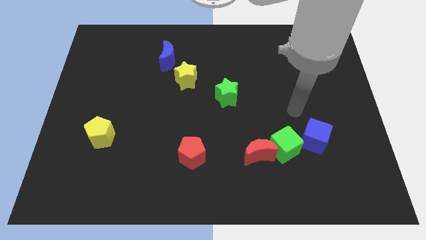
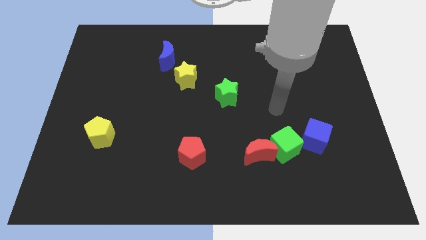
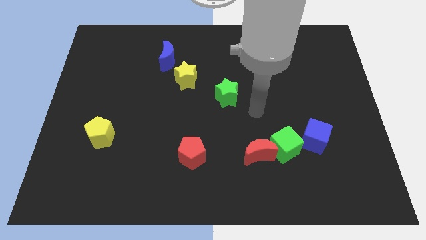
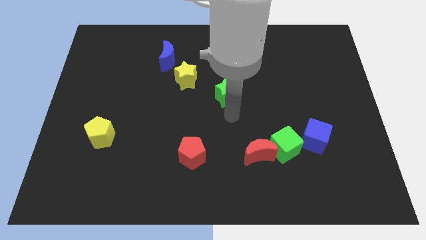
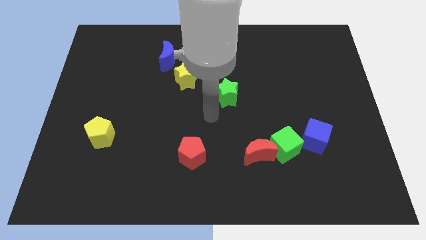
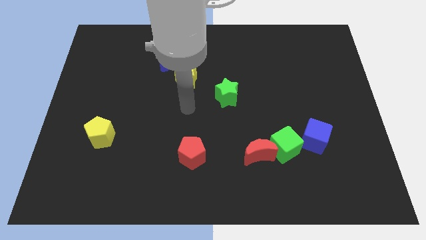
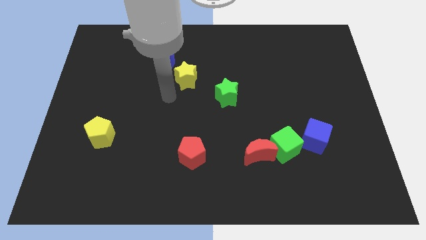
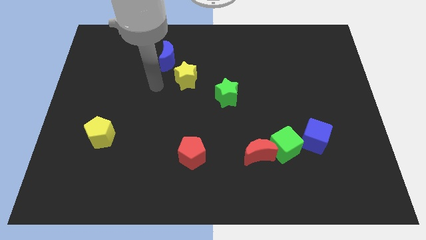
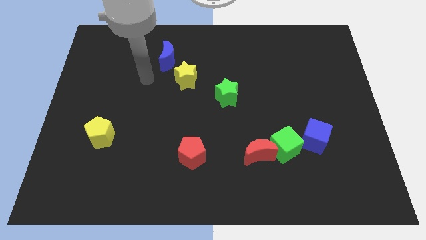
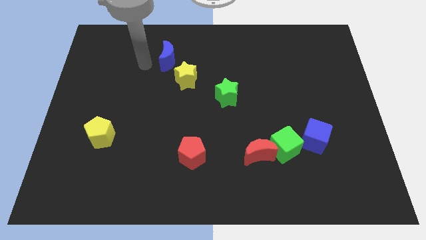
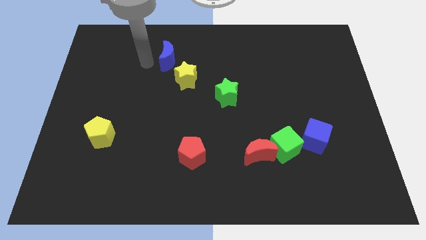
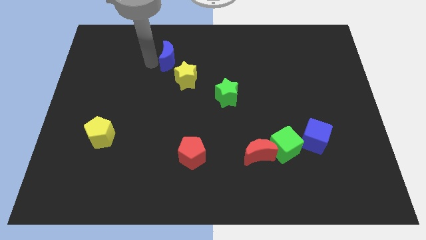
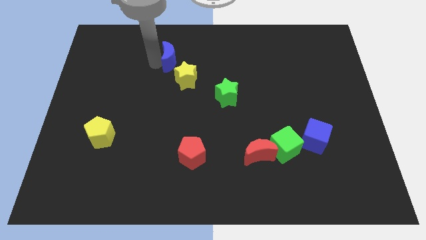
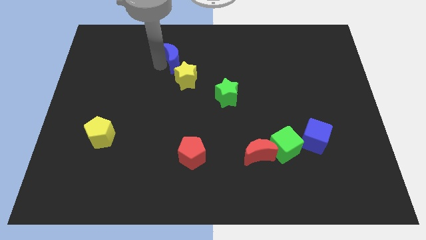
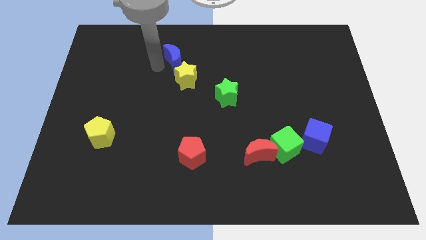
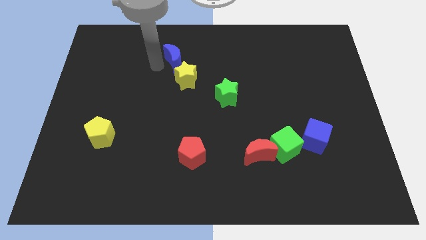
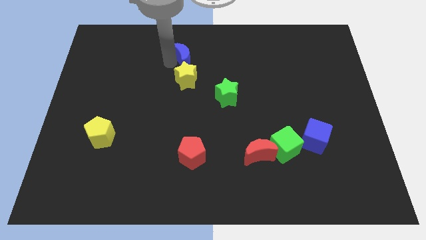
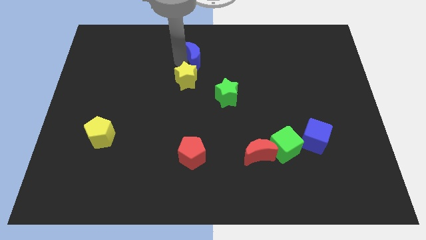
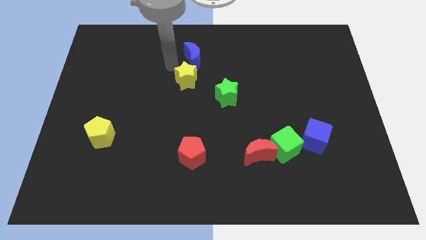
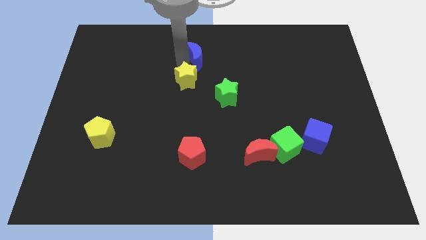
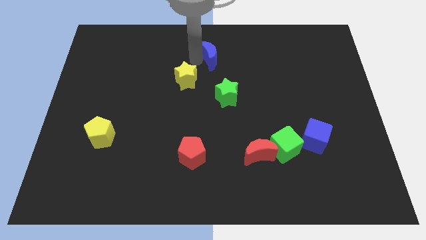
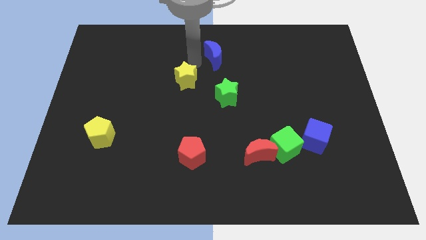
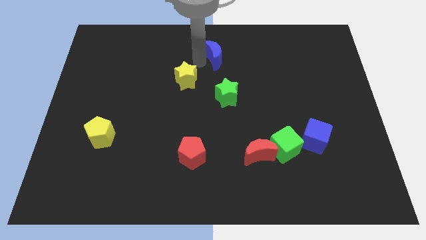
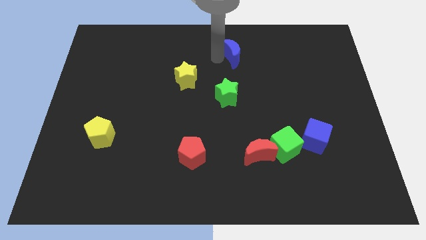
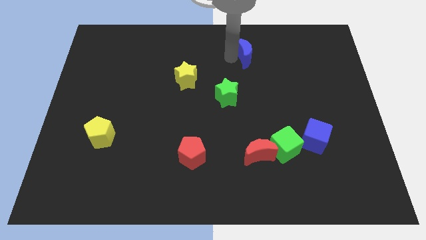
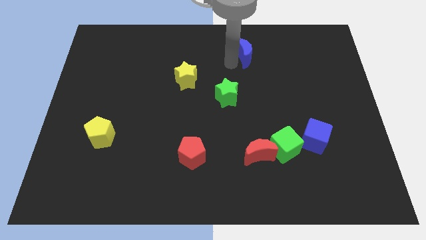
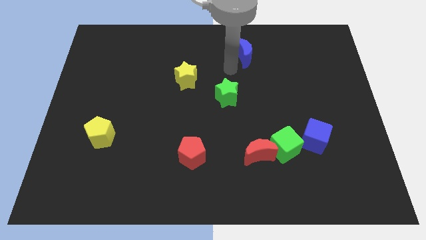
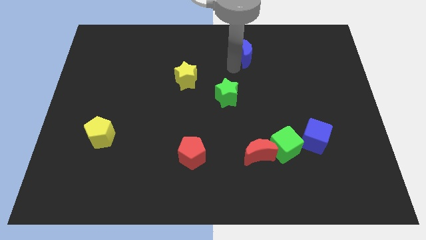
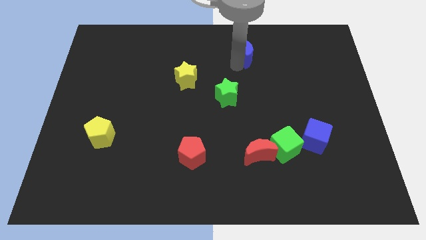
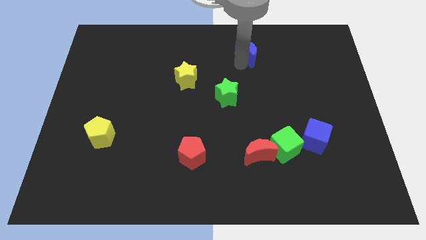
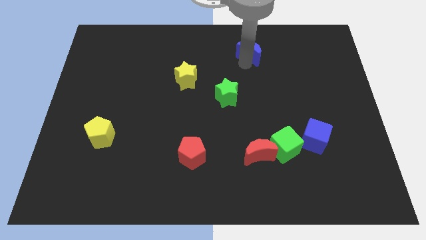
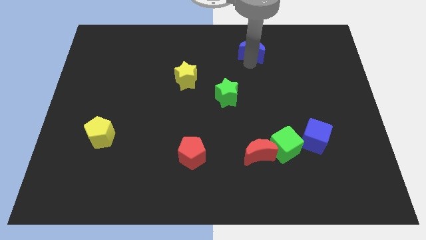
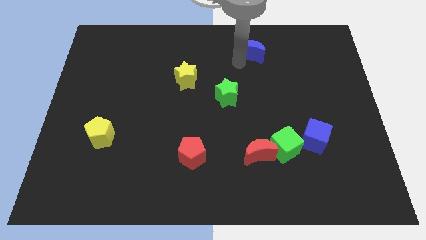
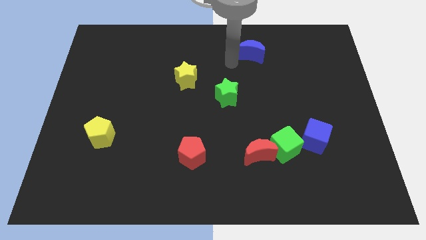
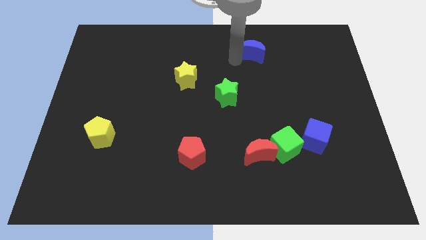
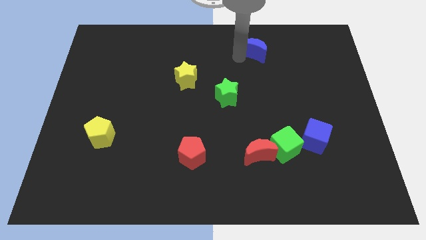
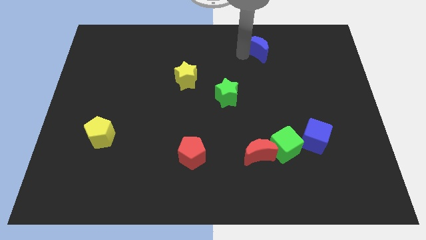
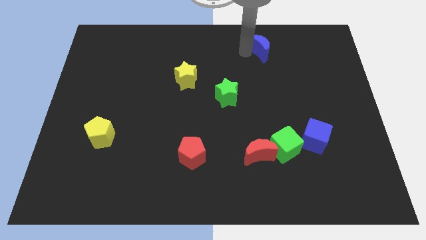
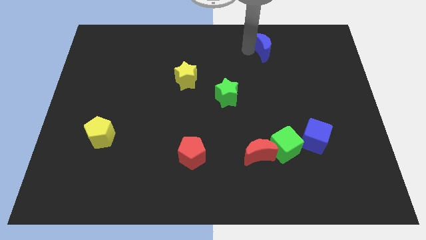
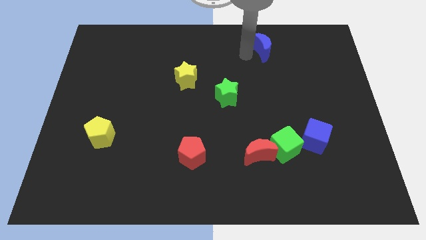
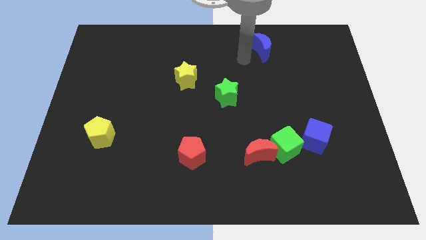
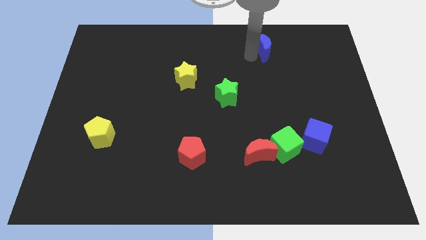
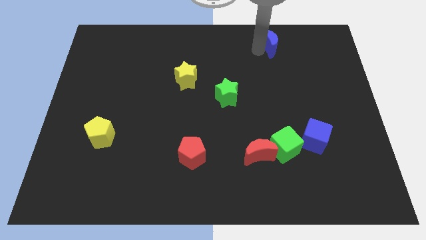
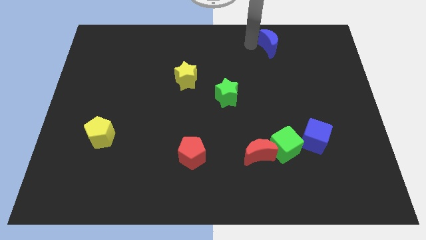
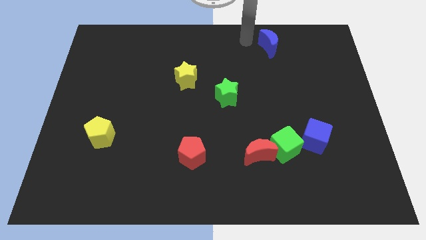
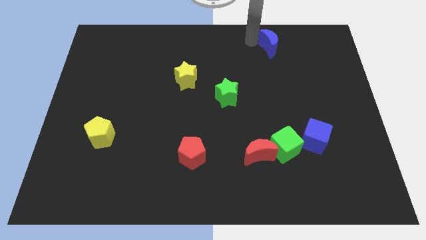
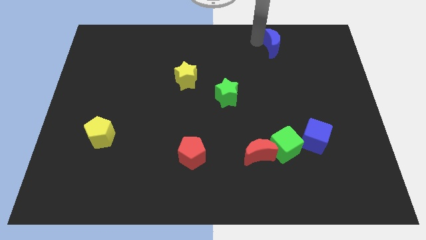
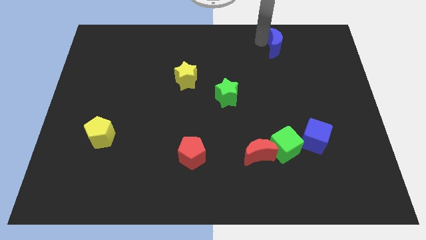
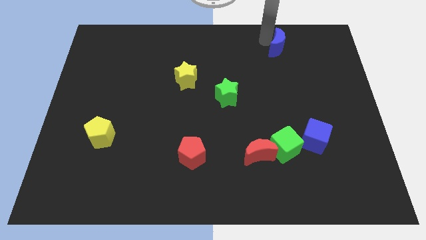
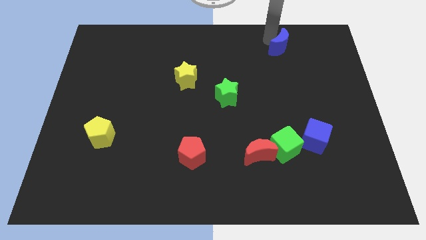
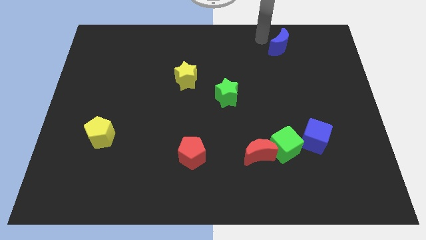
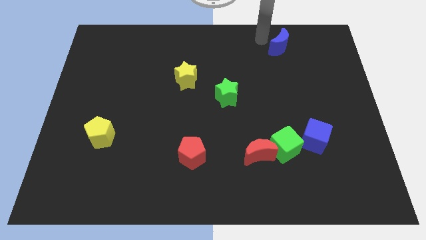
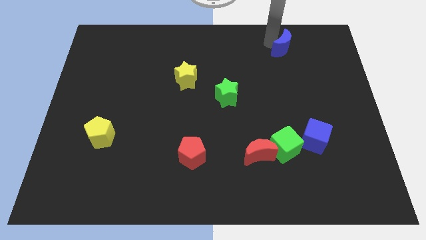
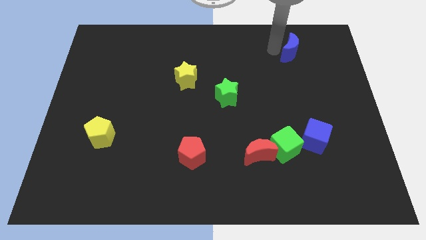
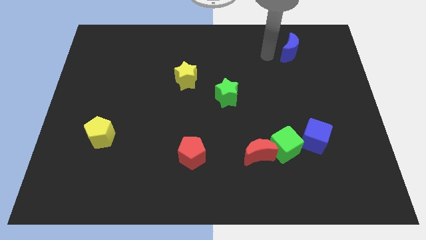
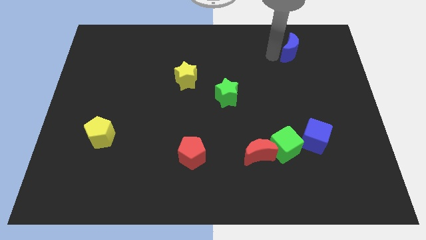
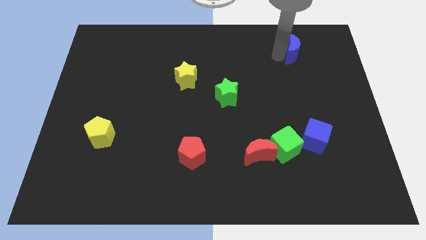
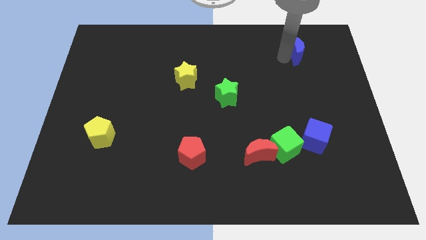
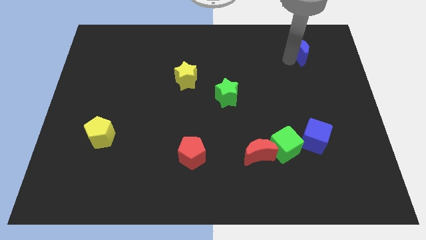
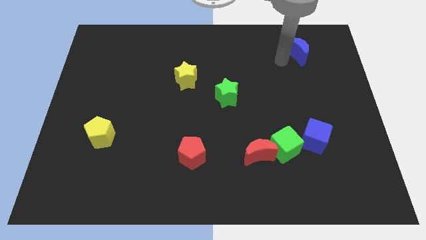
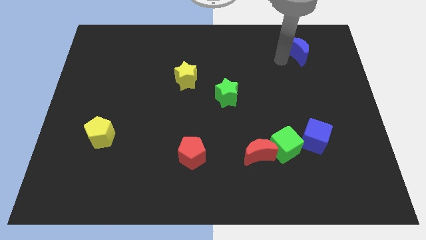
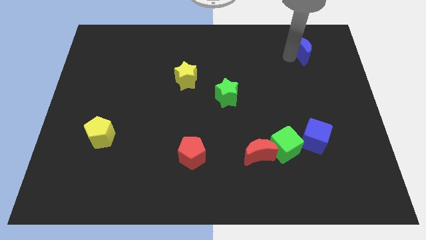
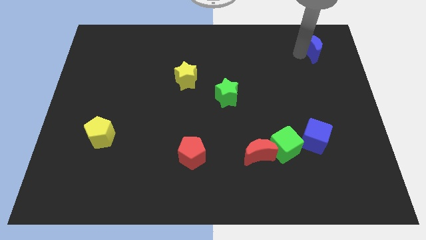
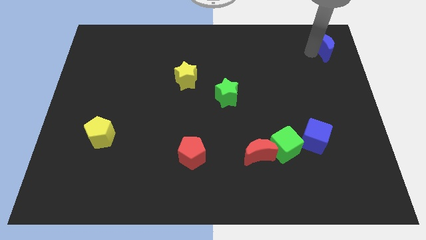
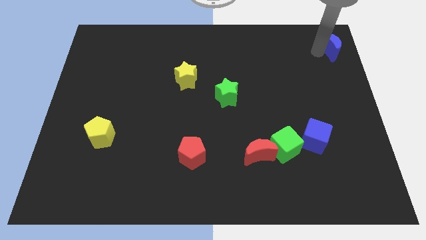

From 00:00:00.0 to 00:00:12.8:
move the blue moon to the top right corner
